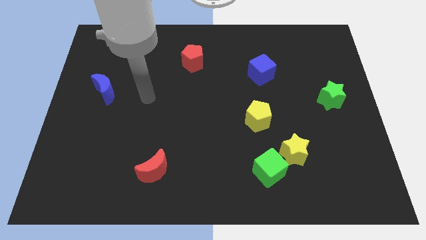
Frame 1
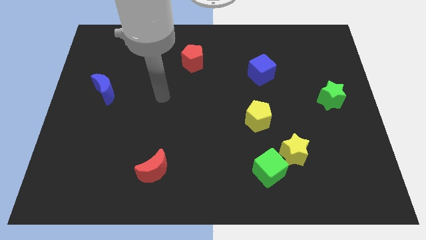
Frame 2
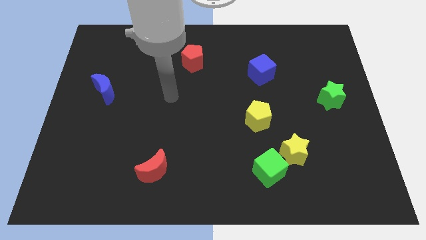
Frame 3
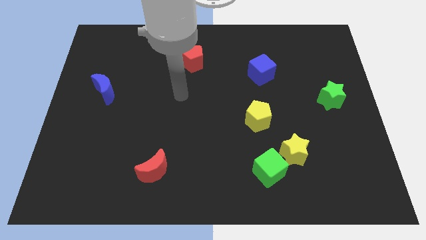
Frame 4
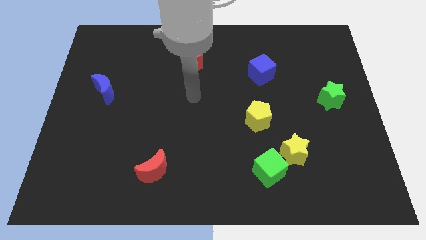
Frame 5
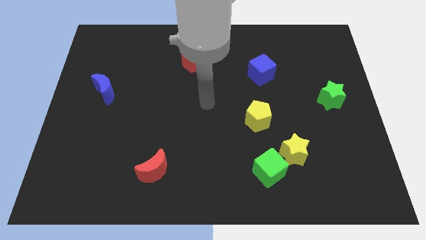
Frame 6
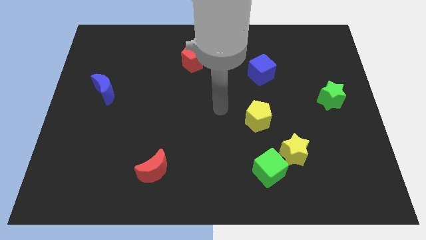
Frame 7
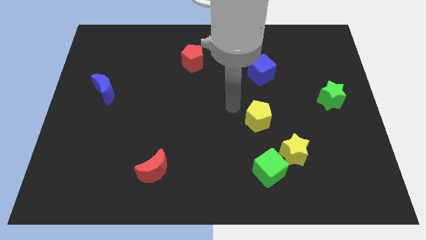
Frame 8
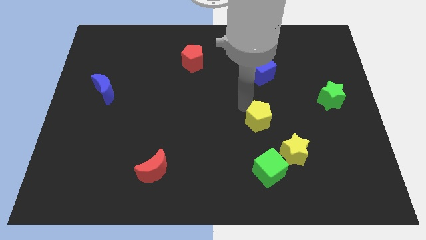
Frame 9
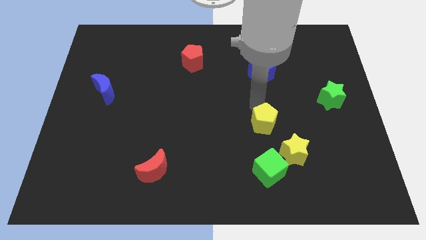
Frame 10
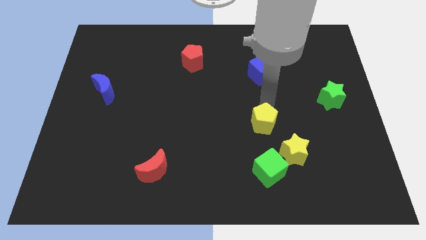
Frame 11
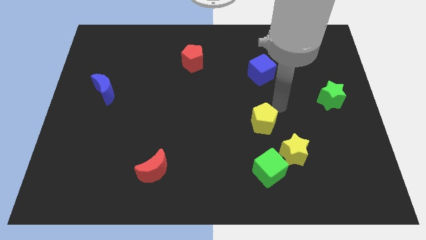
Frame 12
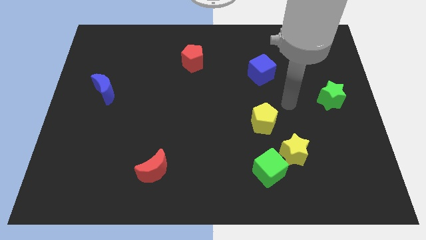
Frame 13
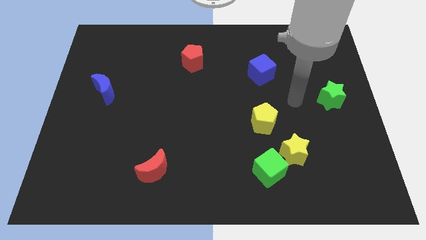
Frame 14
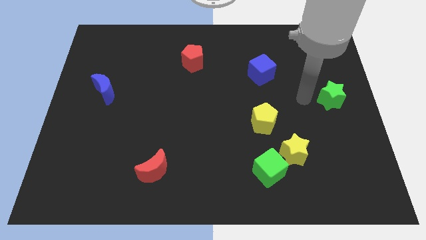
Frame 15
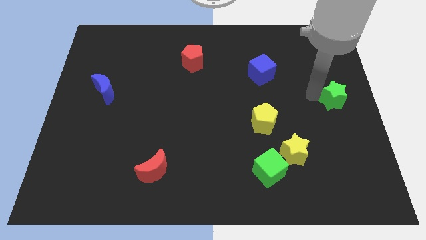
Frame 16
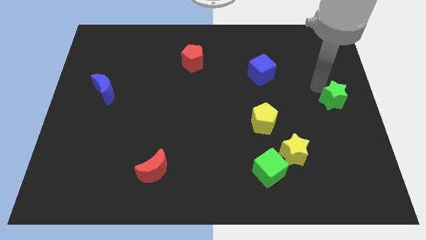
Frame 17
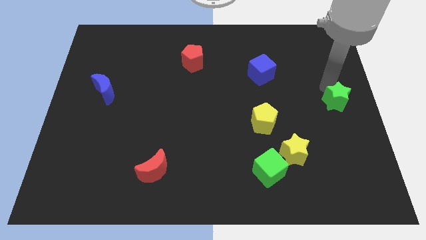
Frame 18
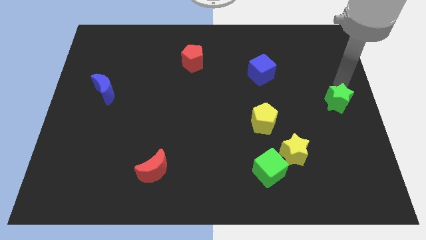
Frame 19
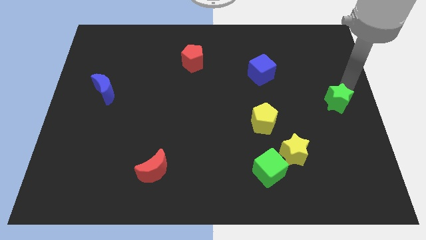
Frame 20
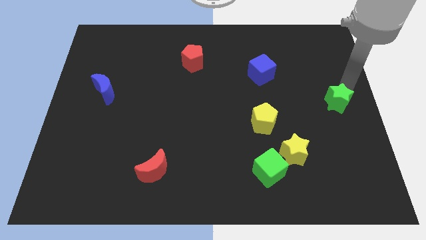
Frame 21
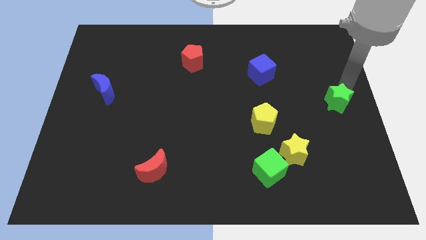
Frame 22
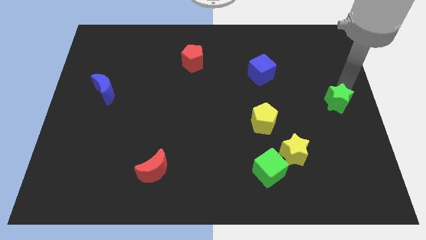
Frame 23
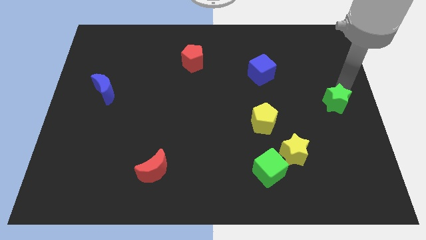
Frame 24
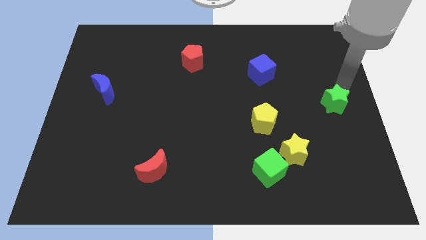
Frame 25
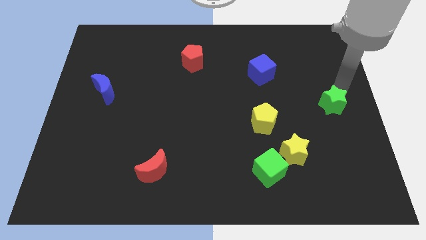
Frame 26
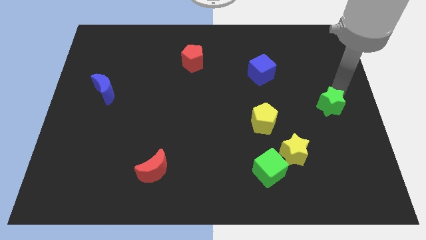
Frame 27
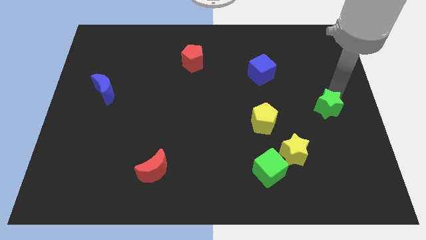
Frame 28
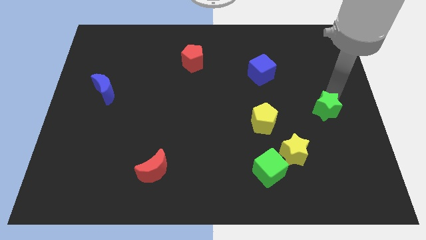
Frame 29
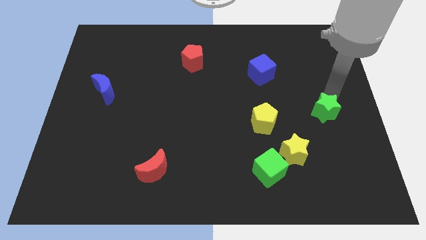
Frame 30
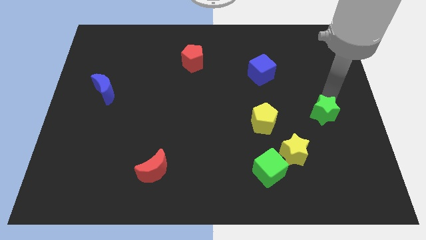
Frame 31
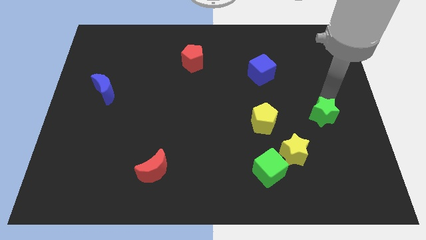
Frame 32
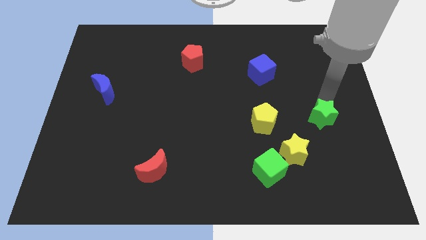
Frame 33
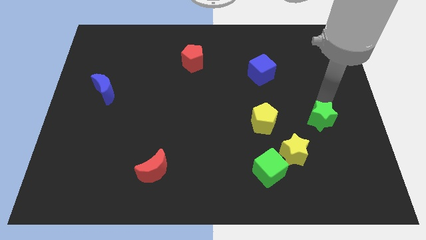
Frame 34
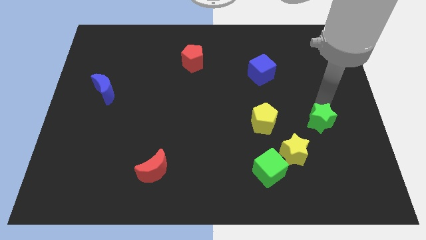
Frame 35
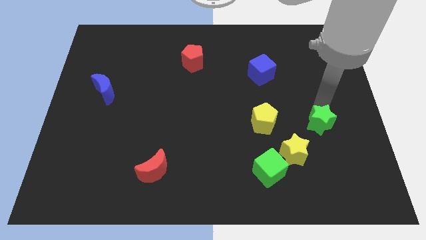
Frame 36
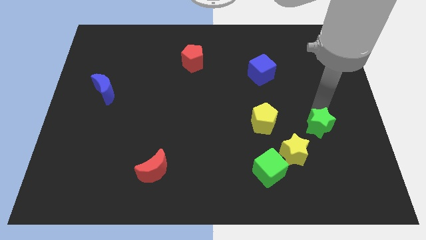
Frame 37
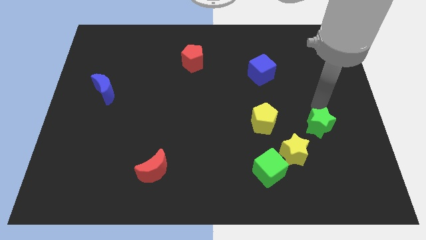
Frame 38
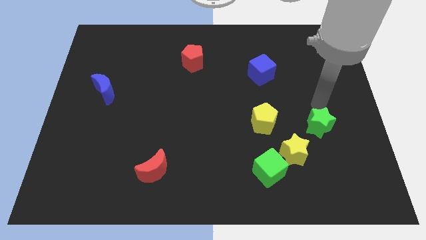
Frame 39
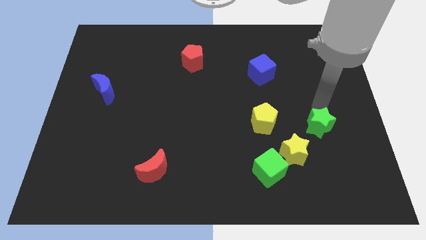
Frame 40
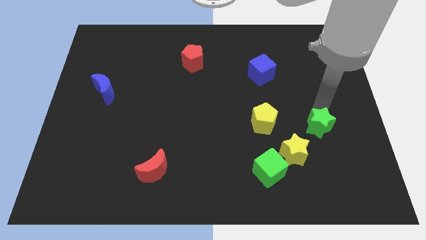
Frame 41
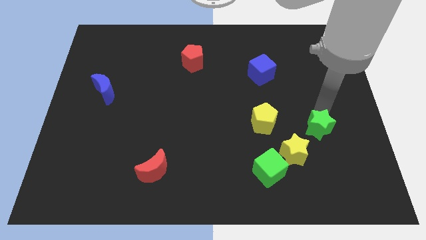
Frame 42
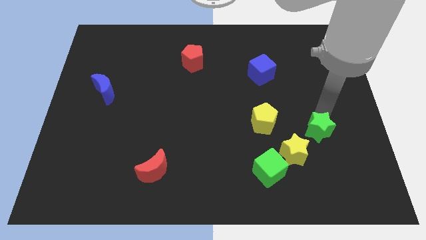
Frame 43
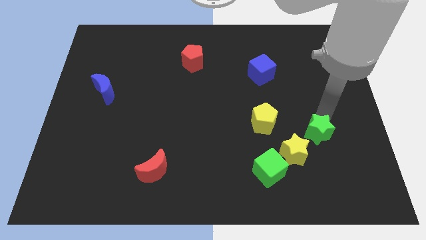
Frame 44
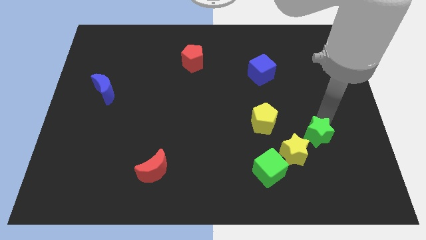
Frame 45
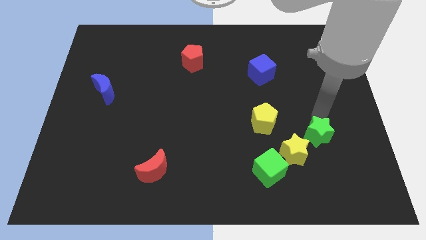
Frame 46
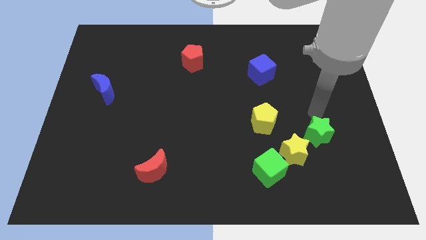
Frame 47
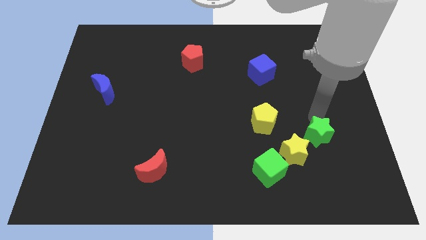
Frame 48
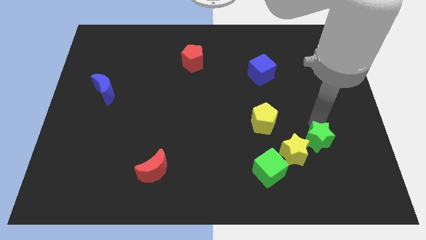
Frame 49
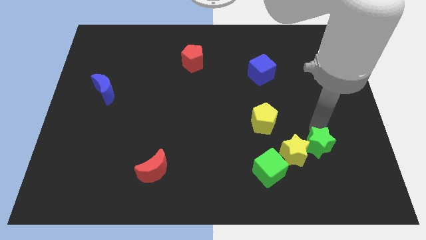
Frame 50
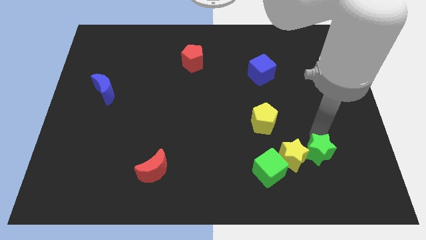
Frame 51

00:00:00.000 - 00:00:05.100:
push the green star just right of the green cube

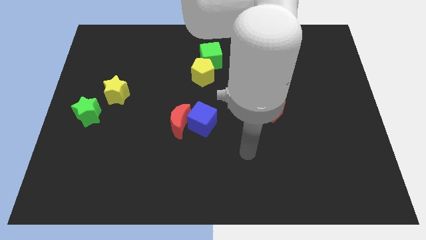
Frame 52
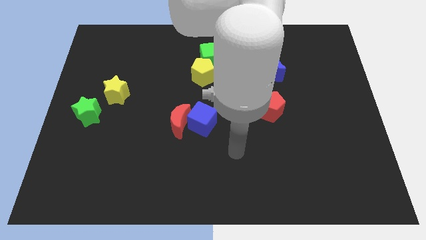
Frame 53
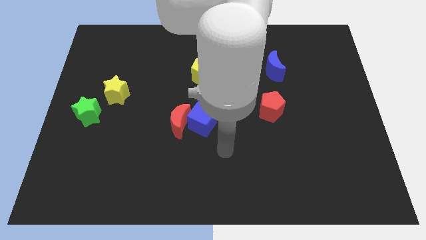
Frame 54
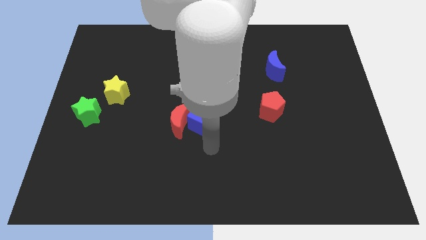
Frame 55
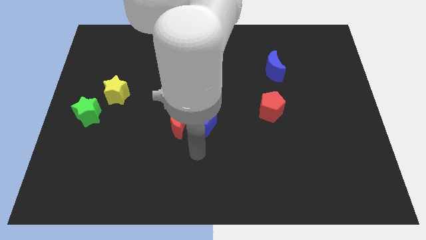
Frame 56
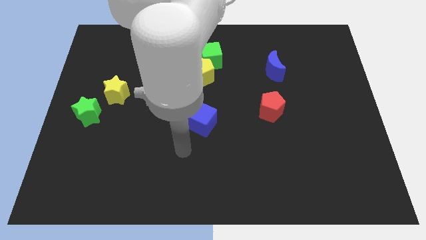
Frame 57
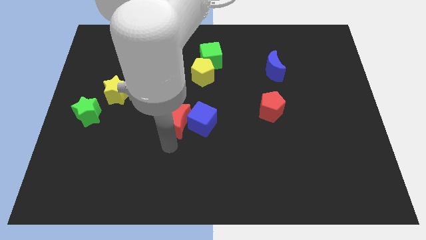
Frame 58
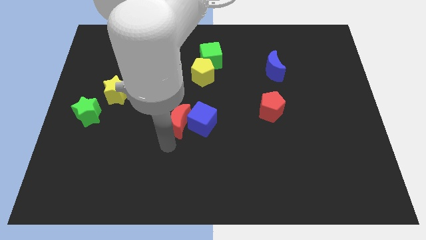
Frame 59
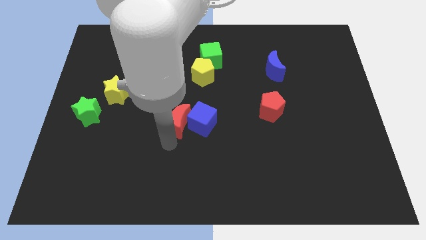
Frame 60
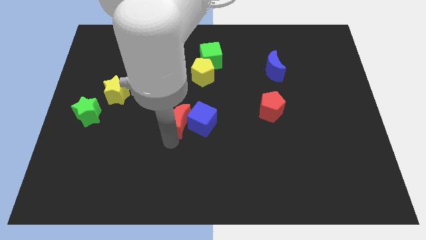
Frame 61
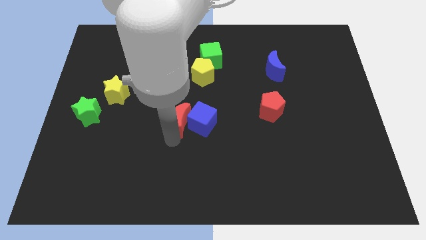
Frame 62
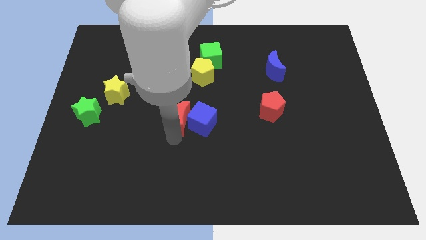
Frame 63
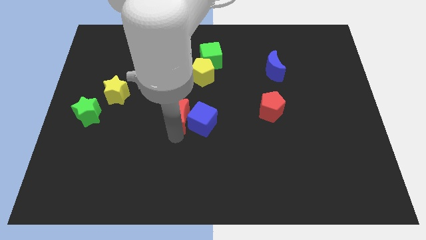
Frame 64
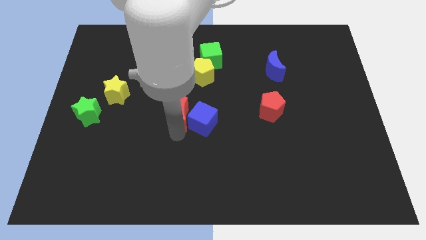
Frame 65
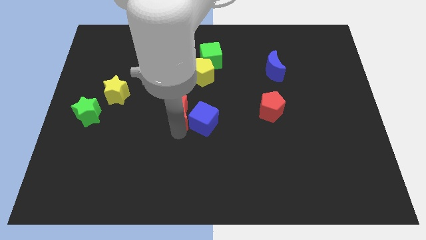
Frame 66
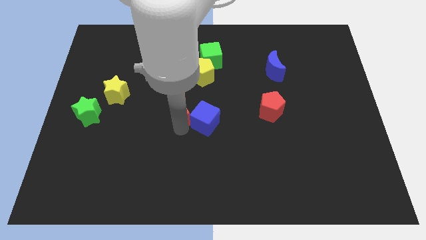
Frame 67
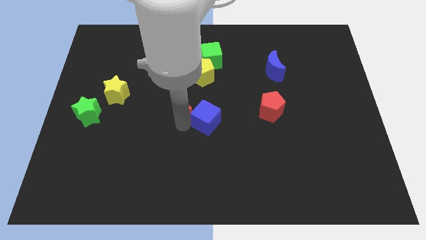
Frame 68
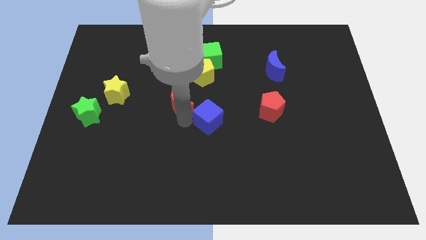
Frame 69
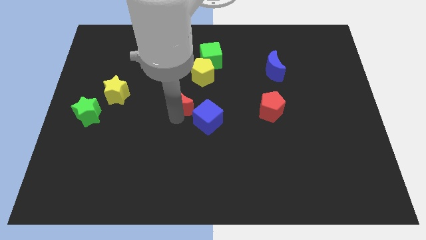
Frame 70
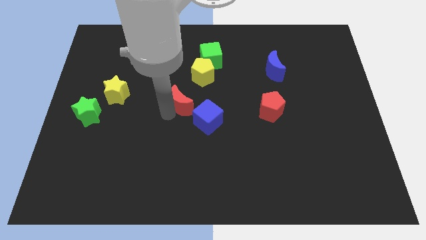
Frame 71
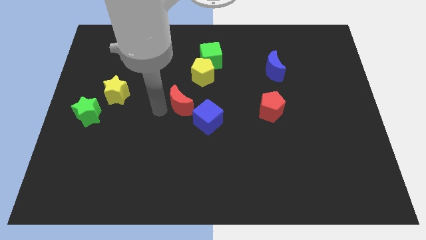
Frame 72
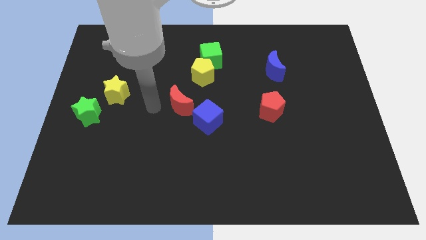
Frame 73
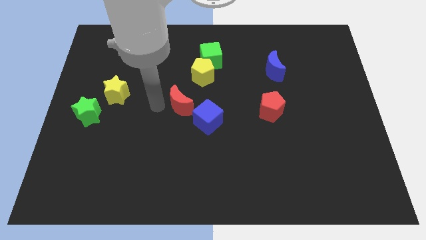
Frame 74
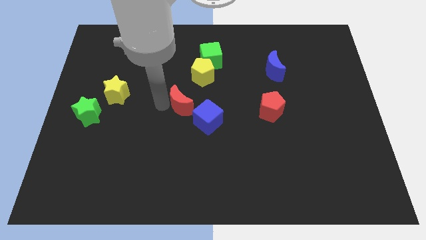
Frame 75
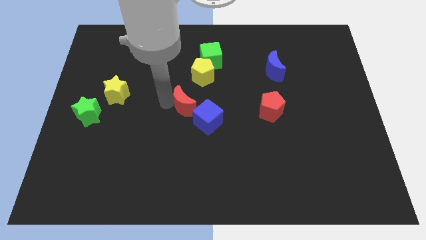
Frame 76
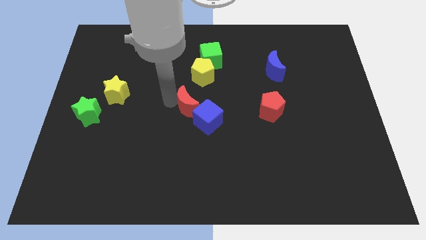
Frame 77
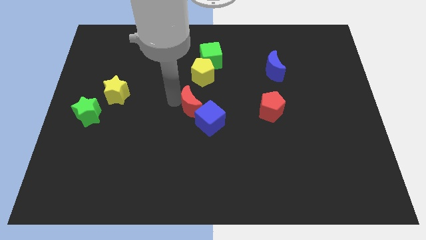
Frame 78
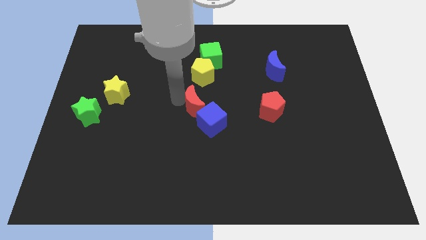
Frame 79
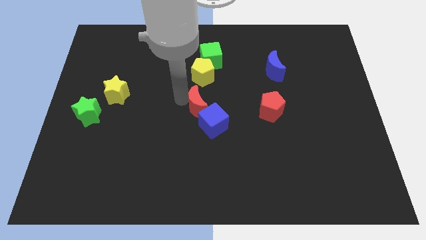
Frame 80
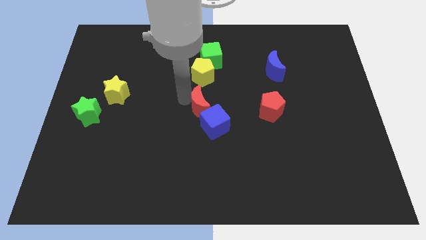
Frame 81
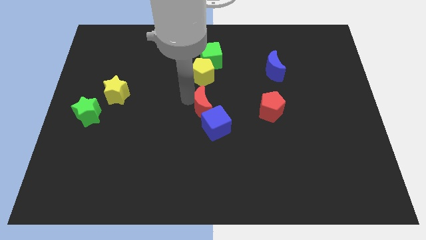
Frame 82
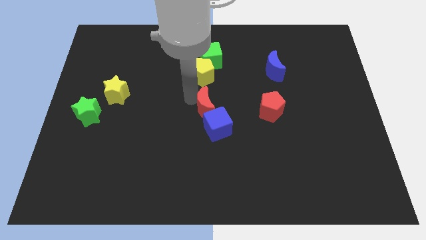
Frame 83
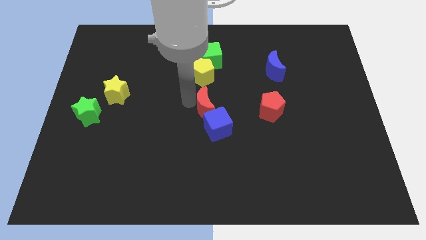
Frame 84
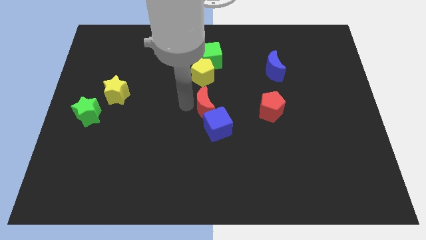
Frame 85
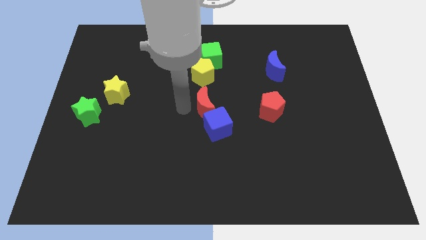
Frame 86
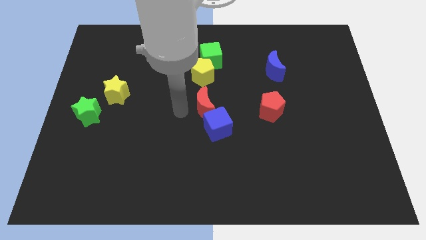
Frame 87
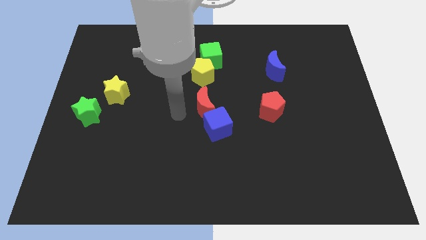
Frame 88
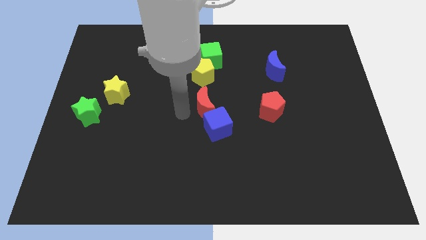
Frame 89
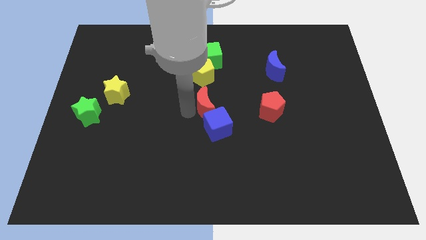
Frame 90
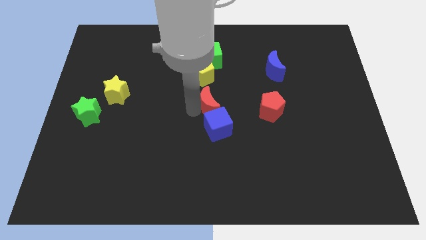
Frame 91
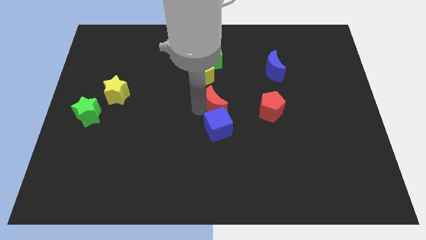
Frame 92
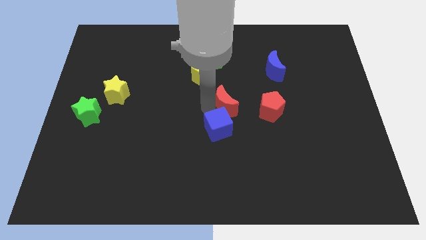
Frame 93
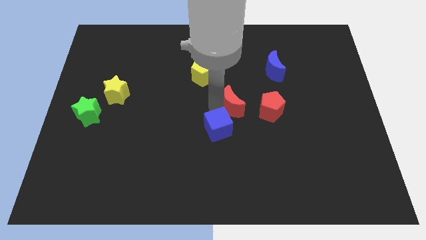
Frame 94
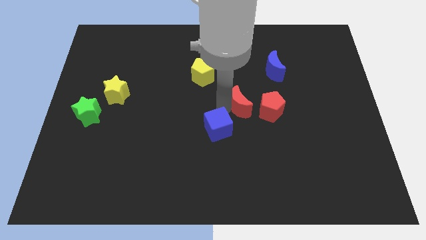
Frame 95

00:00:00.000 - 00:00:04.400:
move the red moon to the top left of the red pentagon
